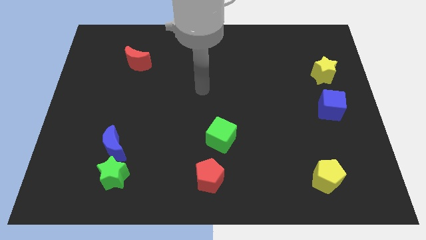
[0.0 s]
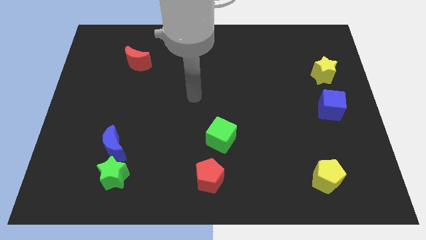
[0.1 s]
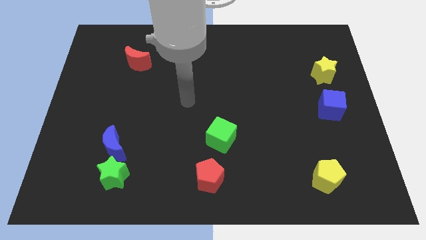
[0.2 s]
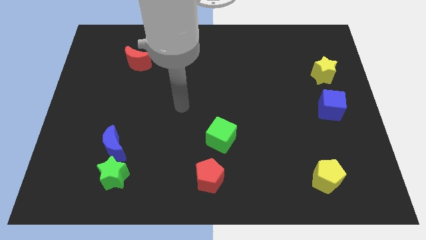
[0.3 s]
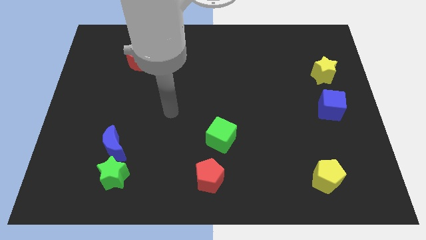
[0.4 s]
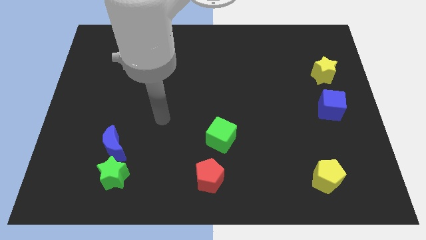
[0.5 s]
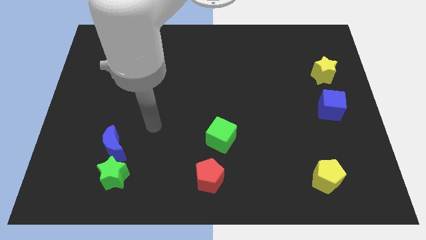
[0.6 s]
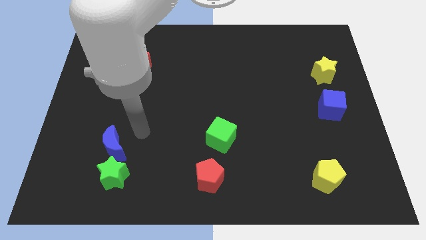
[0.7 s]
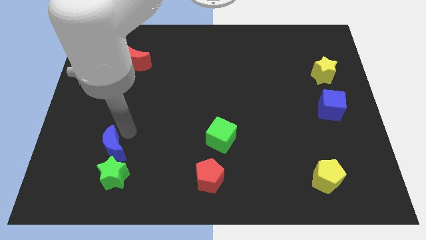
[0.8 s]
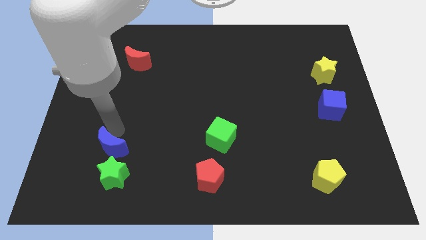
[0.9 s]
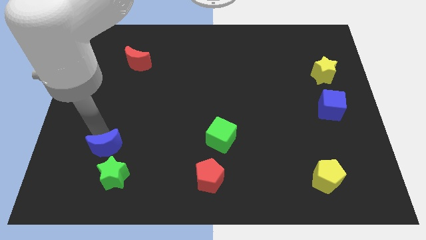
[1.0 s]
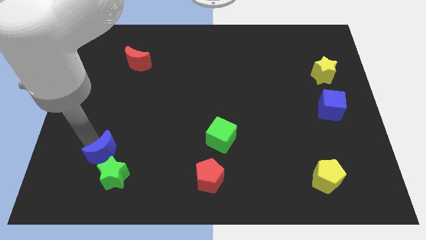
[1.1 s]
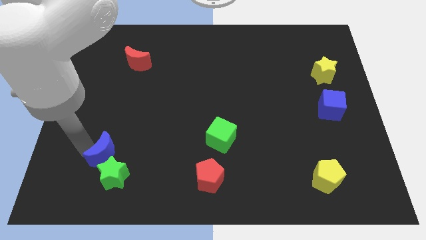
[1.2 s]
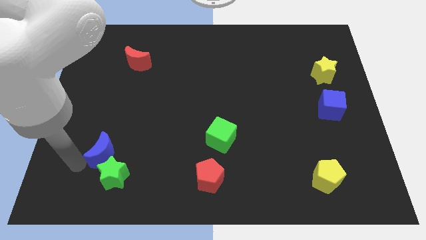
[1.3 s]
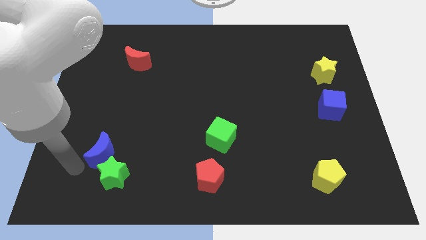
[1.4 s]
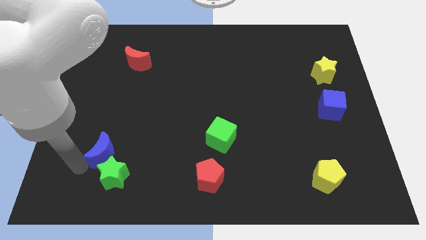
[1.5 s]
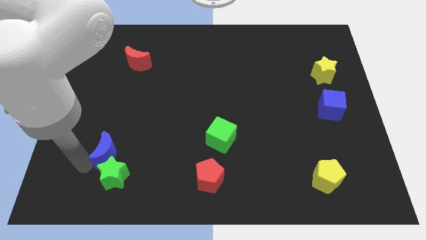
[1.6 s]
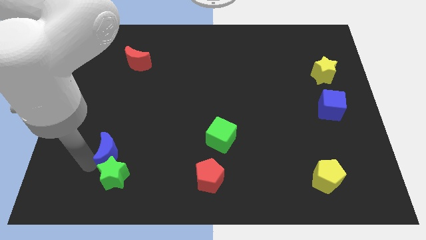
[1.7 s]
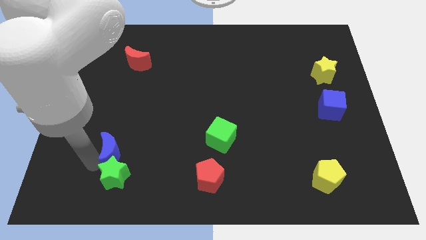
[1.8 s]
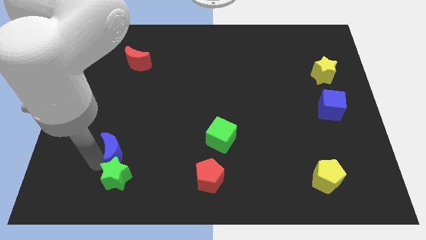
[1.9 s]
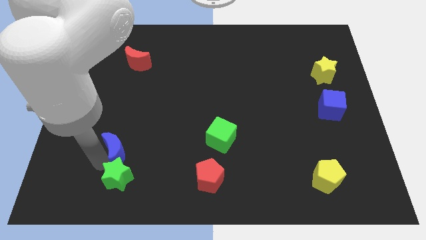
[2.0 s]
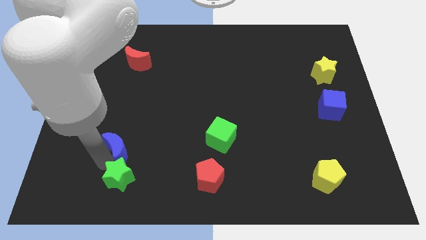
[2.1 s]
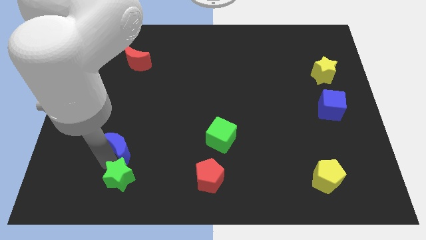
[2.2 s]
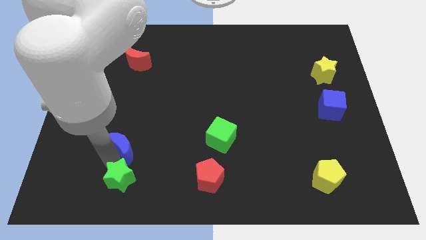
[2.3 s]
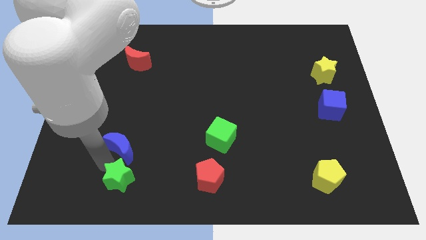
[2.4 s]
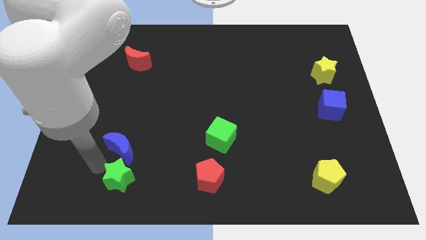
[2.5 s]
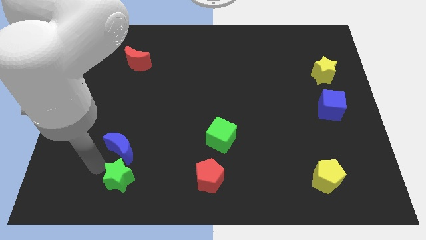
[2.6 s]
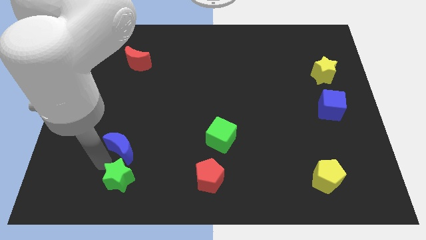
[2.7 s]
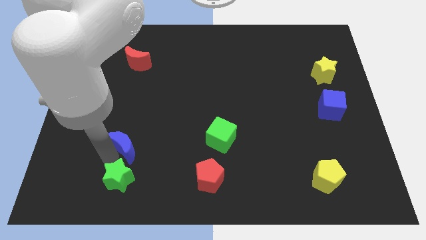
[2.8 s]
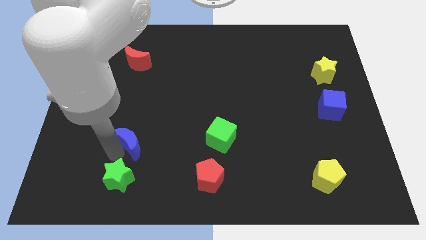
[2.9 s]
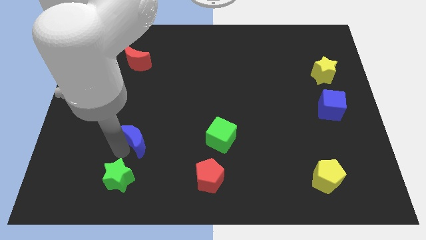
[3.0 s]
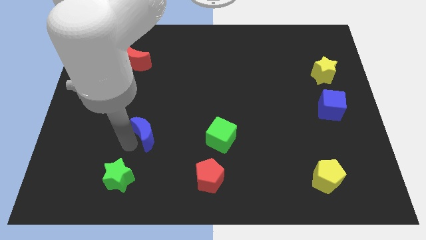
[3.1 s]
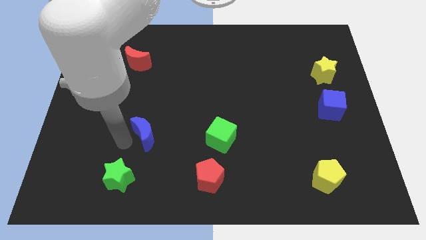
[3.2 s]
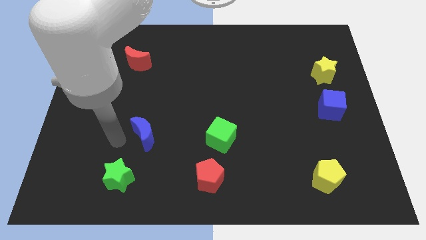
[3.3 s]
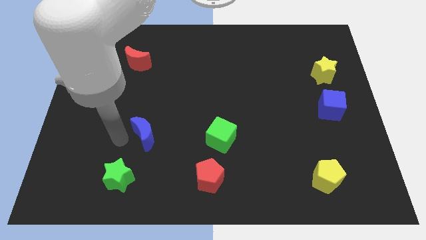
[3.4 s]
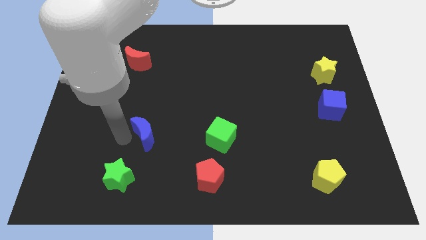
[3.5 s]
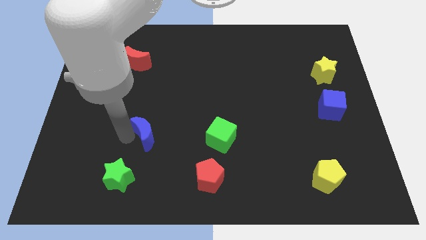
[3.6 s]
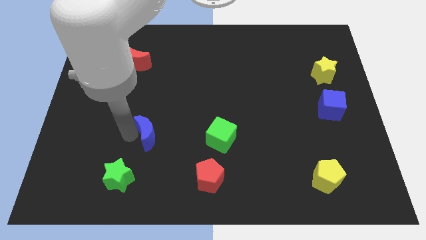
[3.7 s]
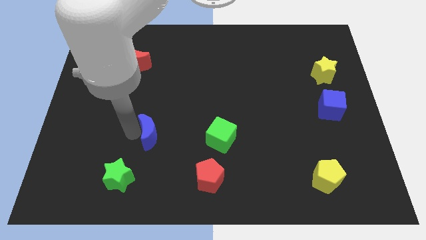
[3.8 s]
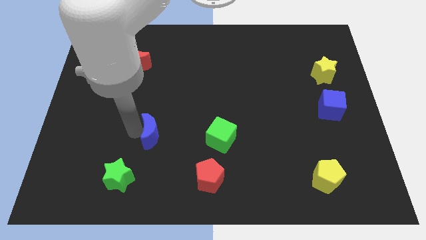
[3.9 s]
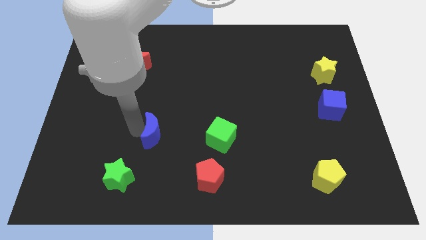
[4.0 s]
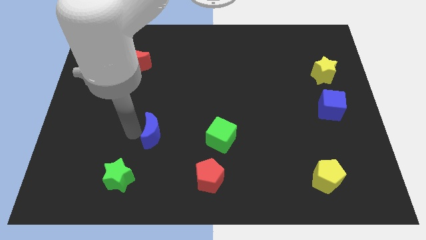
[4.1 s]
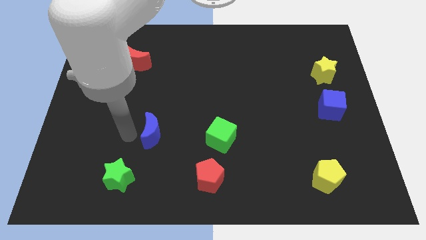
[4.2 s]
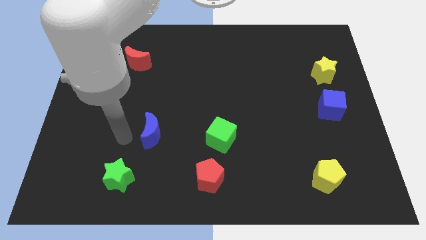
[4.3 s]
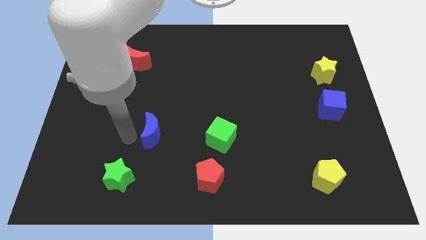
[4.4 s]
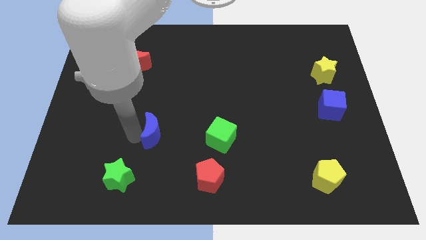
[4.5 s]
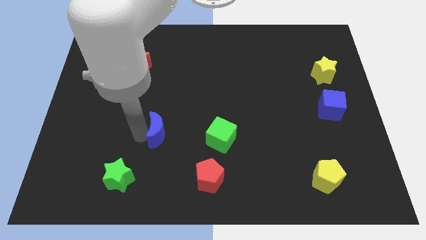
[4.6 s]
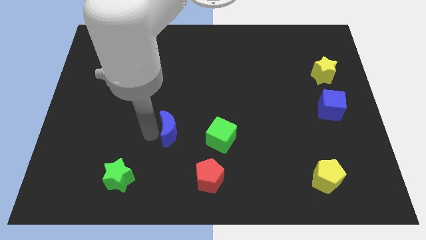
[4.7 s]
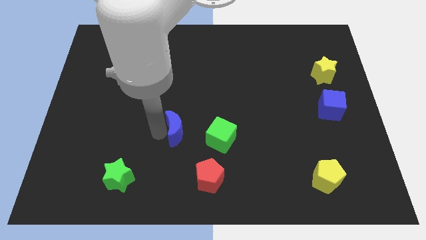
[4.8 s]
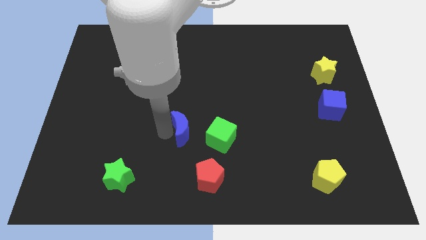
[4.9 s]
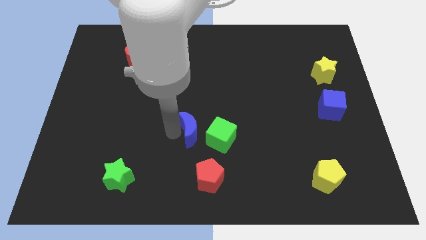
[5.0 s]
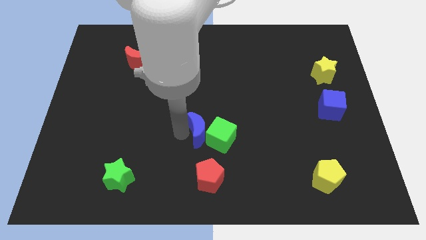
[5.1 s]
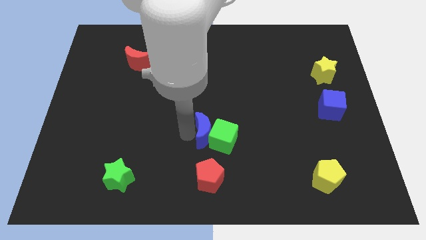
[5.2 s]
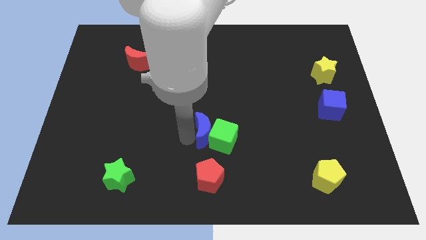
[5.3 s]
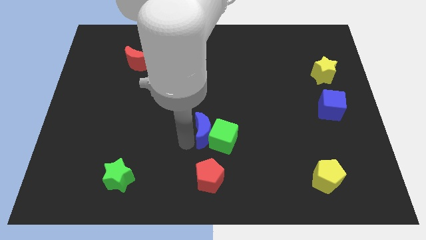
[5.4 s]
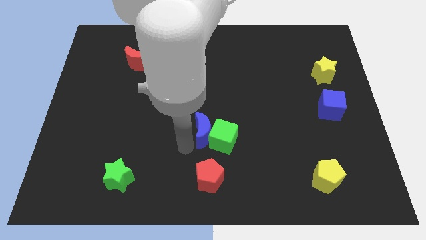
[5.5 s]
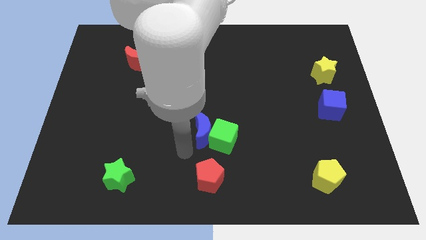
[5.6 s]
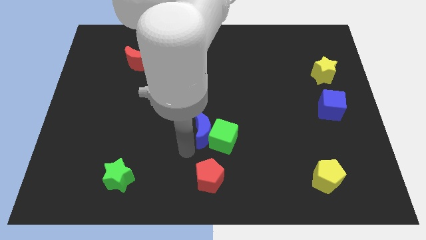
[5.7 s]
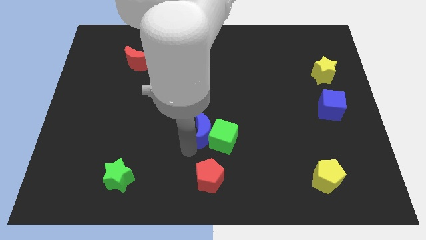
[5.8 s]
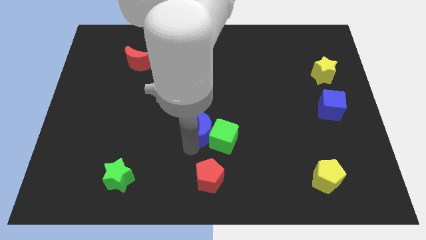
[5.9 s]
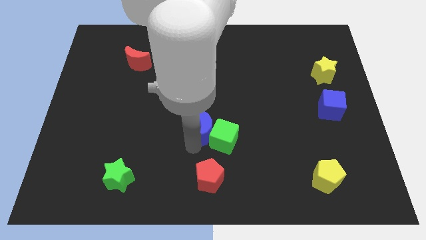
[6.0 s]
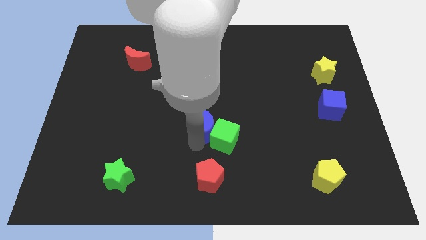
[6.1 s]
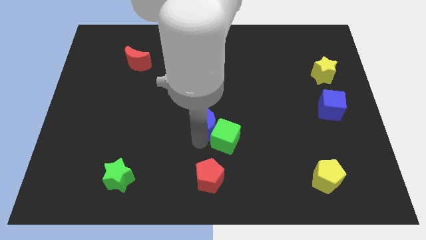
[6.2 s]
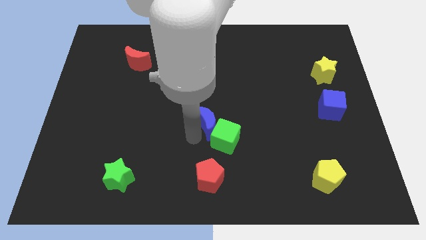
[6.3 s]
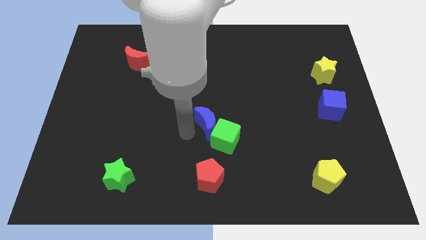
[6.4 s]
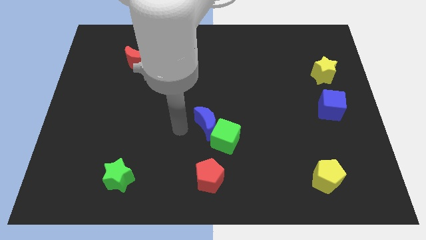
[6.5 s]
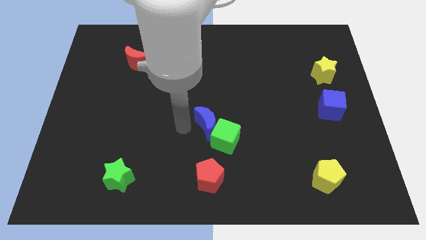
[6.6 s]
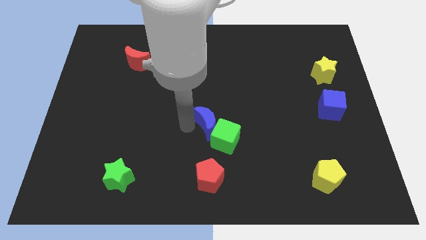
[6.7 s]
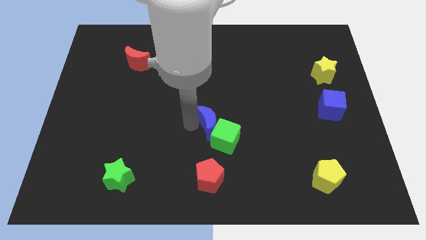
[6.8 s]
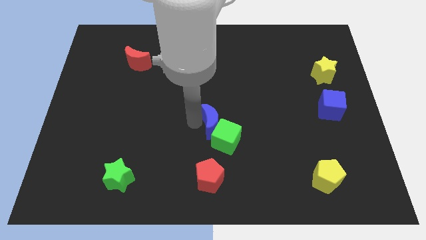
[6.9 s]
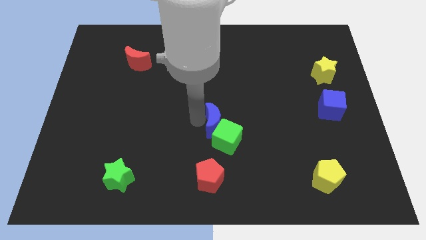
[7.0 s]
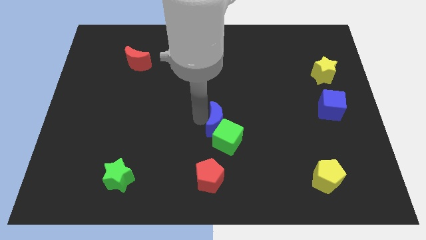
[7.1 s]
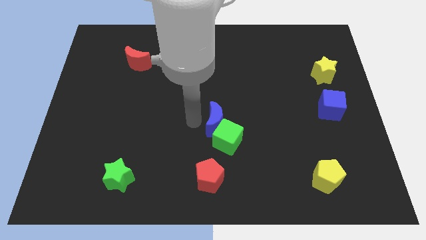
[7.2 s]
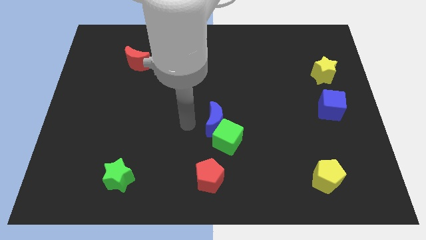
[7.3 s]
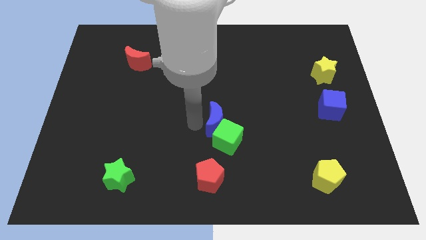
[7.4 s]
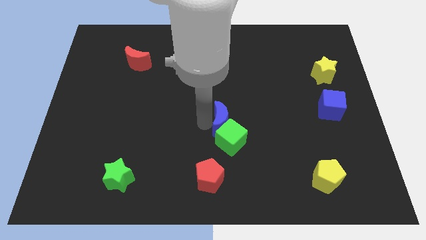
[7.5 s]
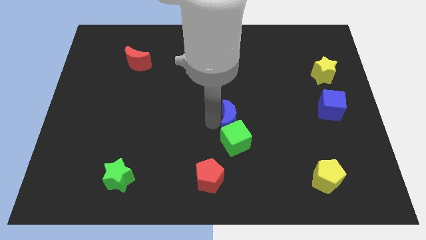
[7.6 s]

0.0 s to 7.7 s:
move the blue moon to the top right of the green cube
